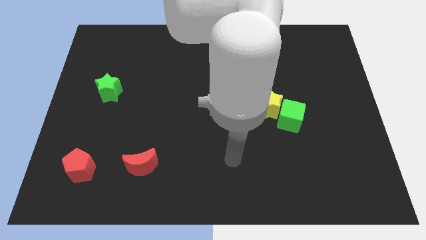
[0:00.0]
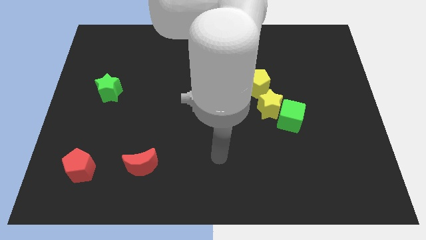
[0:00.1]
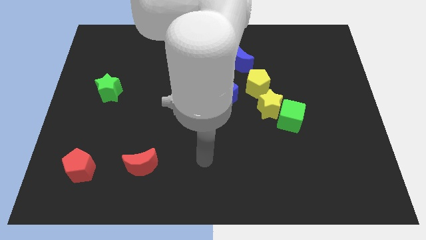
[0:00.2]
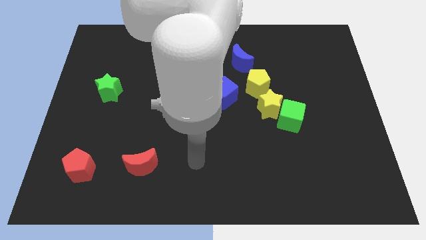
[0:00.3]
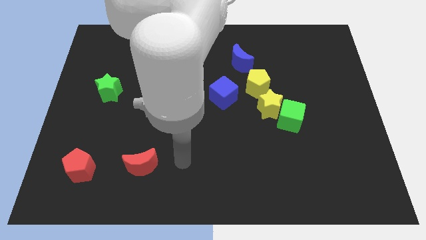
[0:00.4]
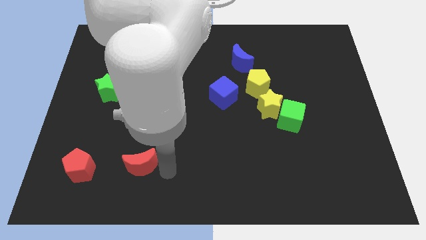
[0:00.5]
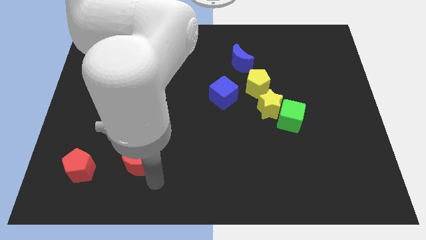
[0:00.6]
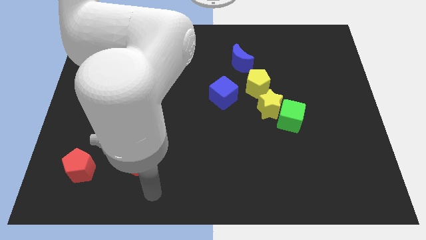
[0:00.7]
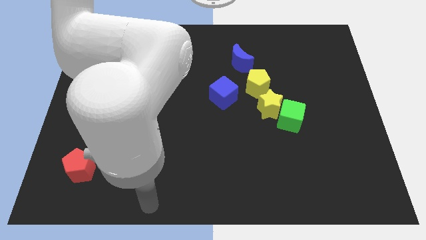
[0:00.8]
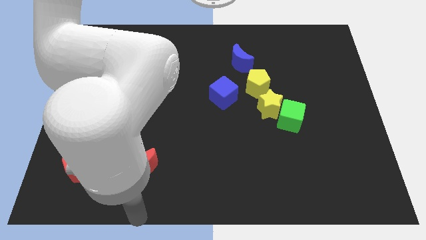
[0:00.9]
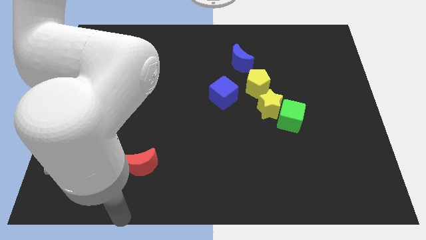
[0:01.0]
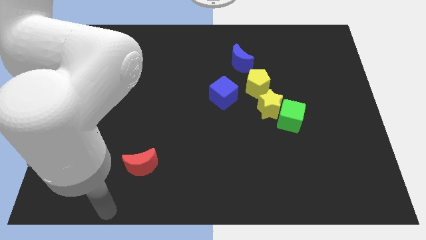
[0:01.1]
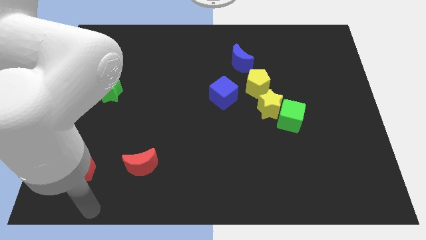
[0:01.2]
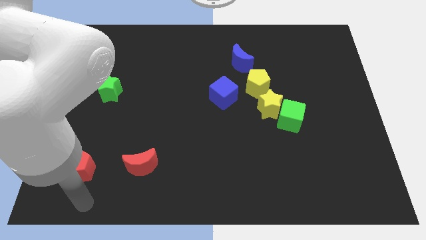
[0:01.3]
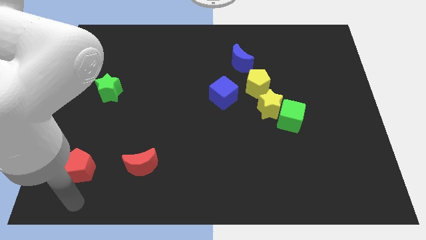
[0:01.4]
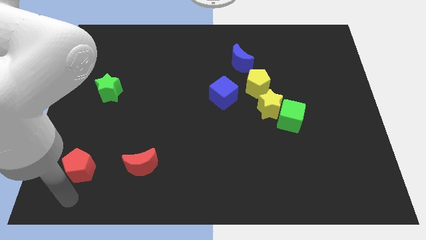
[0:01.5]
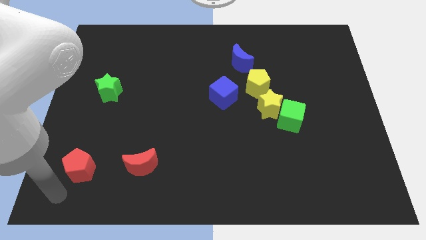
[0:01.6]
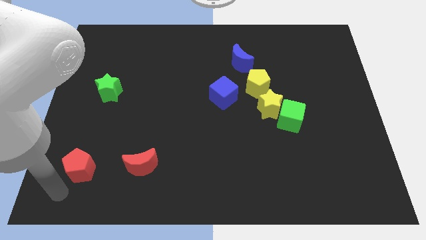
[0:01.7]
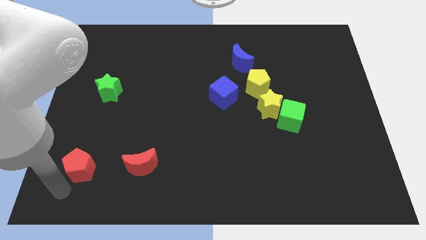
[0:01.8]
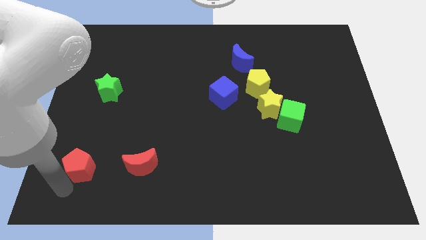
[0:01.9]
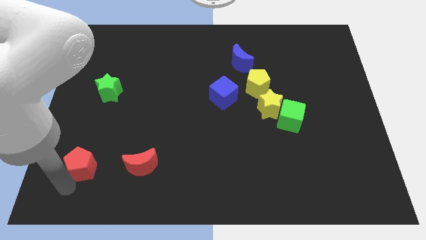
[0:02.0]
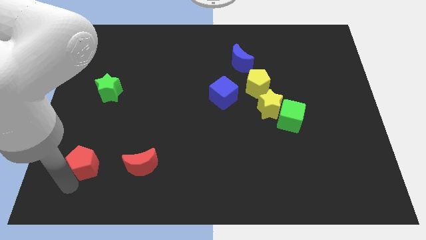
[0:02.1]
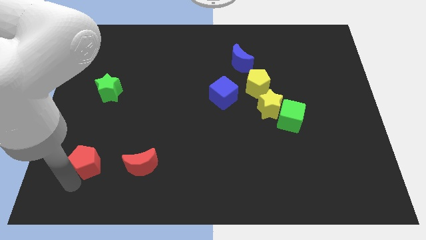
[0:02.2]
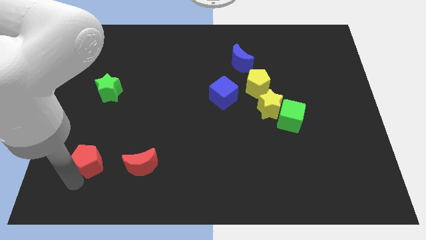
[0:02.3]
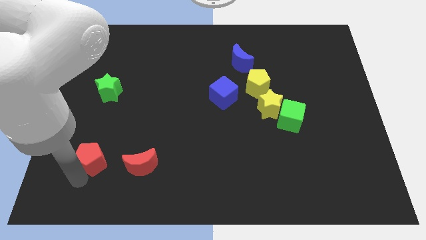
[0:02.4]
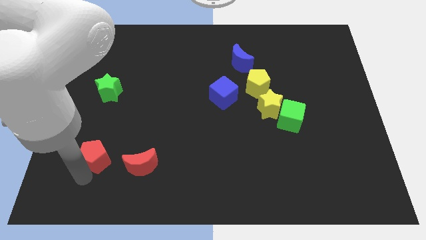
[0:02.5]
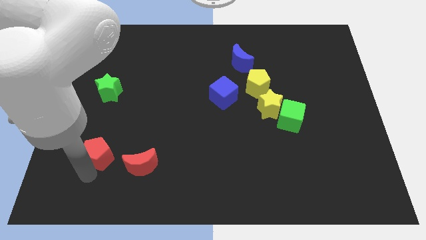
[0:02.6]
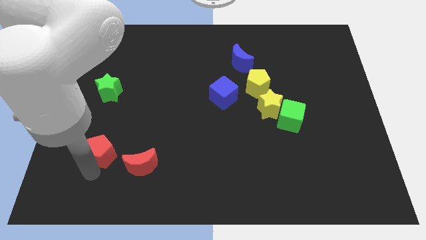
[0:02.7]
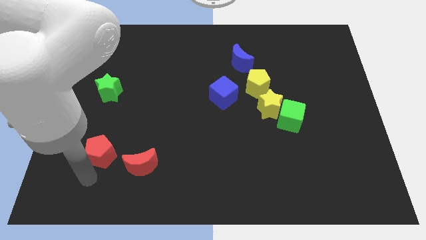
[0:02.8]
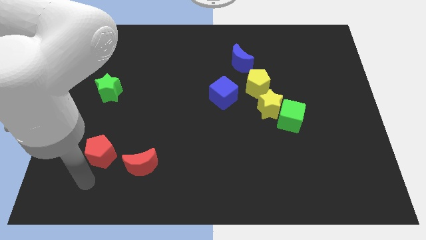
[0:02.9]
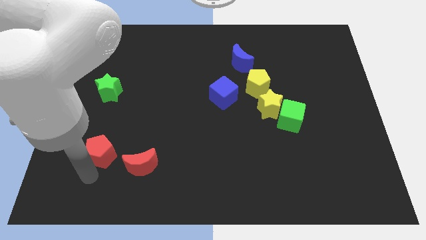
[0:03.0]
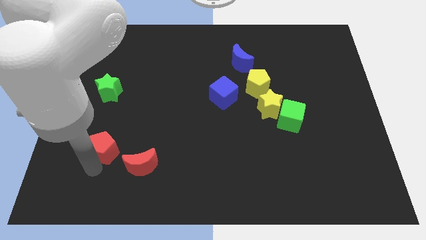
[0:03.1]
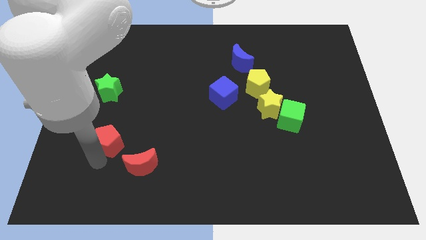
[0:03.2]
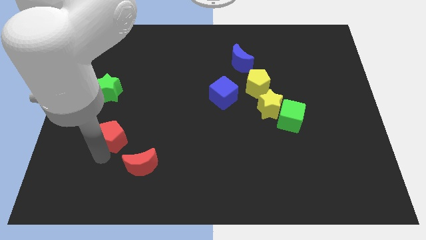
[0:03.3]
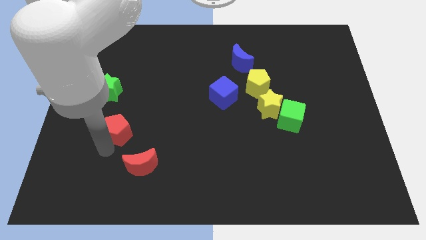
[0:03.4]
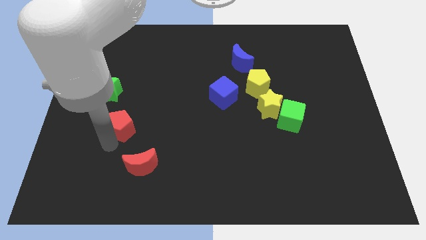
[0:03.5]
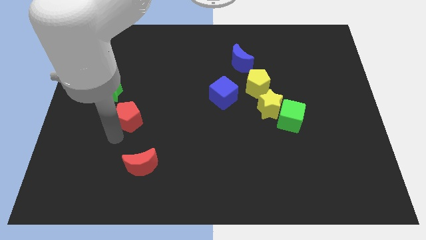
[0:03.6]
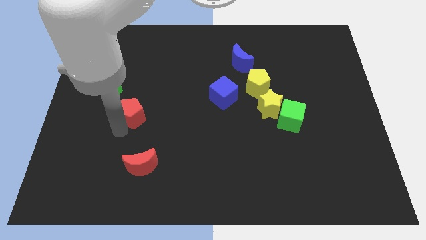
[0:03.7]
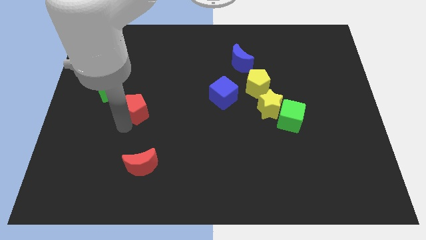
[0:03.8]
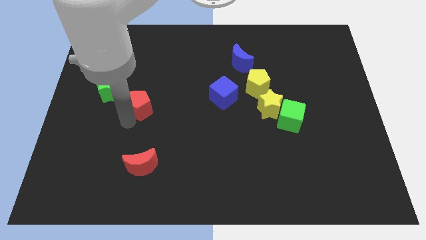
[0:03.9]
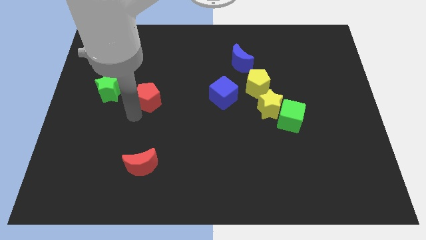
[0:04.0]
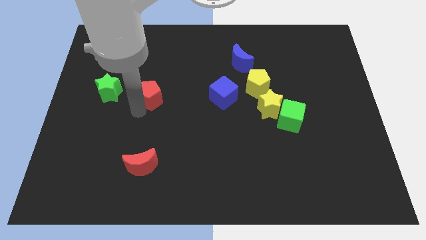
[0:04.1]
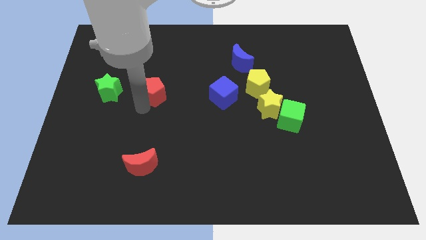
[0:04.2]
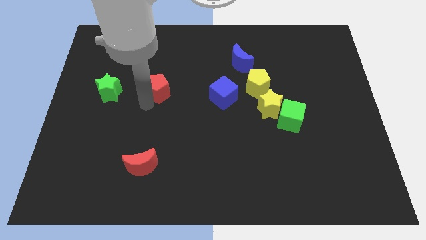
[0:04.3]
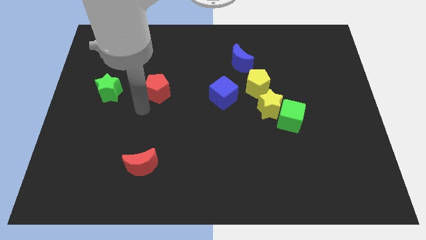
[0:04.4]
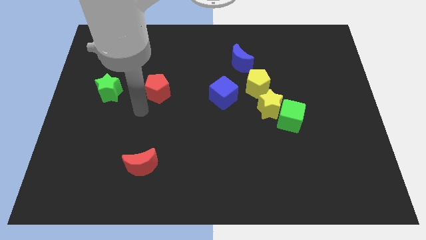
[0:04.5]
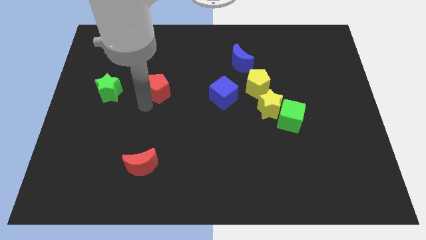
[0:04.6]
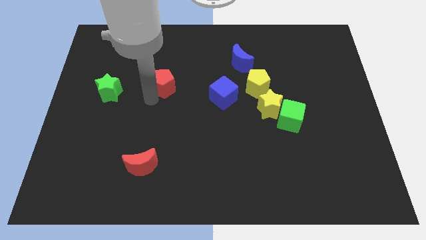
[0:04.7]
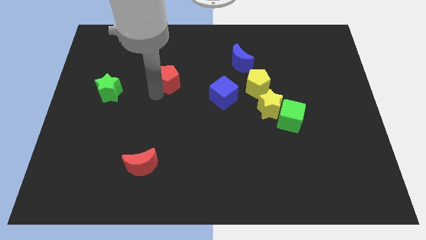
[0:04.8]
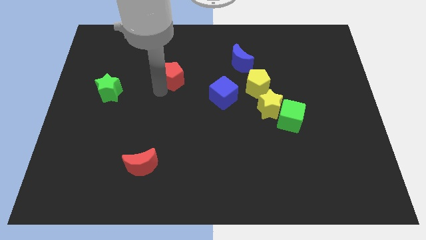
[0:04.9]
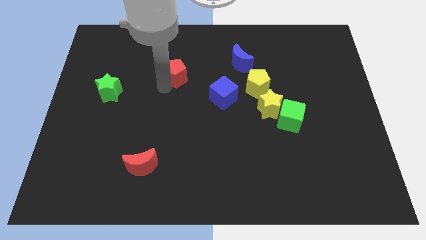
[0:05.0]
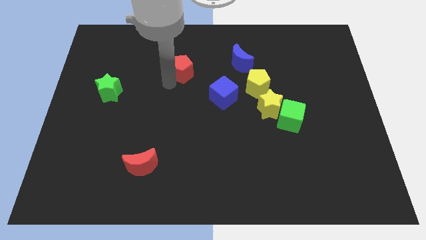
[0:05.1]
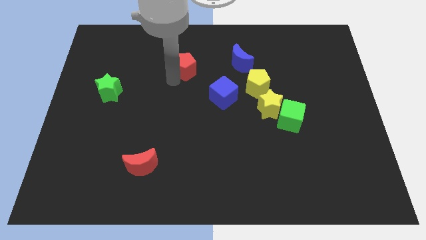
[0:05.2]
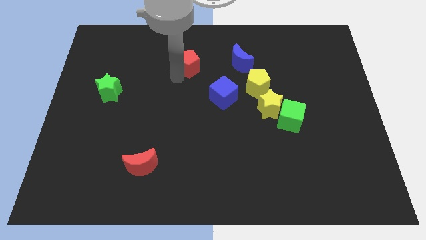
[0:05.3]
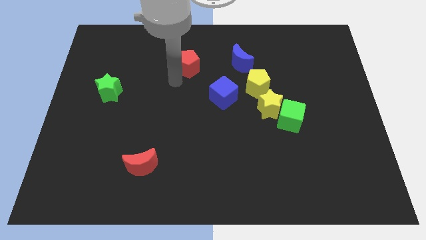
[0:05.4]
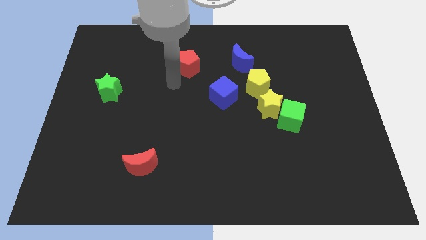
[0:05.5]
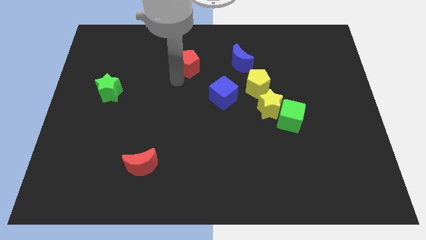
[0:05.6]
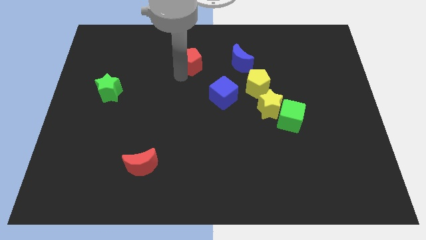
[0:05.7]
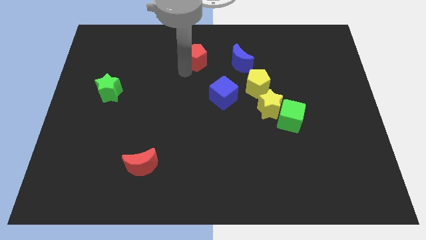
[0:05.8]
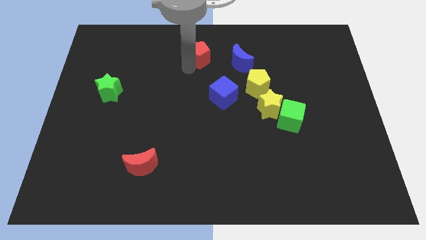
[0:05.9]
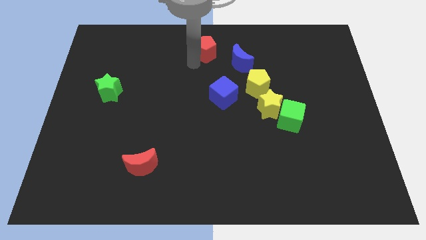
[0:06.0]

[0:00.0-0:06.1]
move the red pentagon to the top side

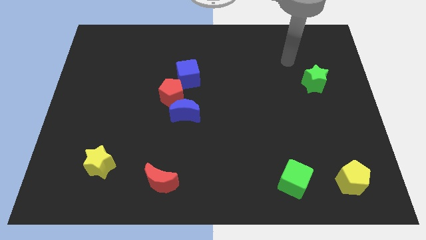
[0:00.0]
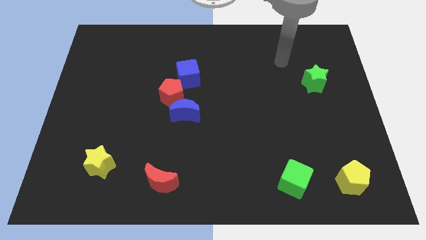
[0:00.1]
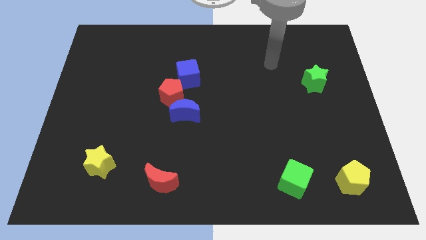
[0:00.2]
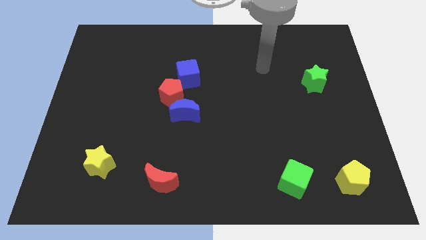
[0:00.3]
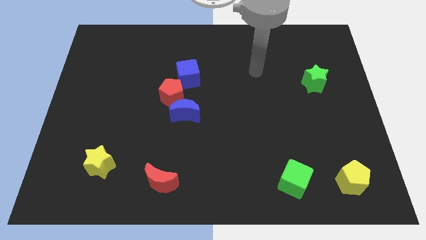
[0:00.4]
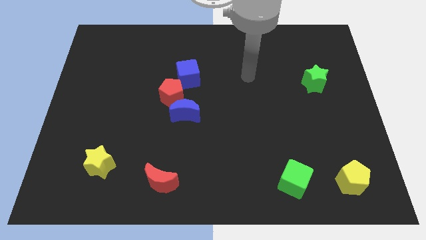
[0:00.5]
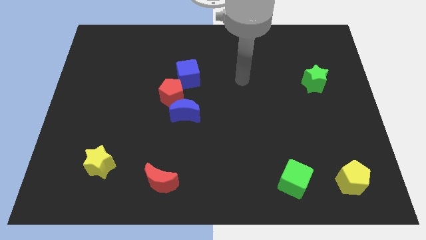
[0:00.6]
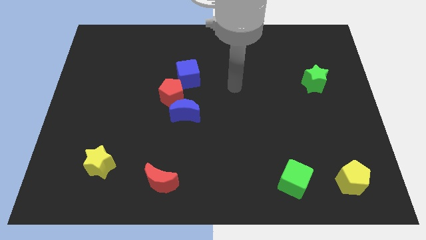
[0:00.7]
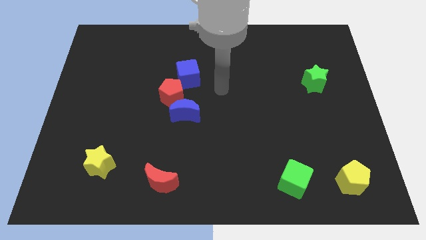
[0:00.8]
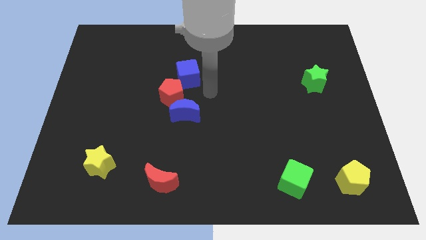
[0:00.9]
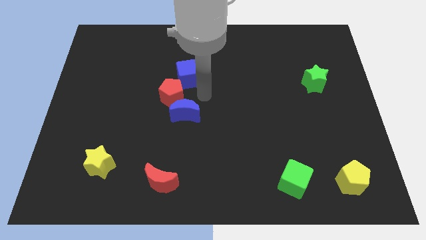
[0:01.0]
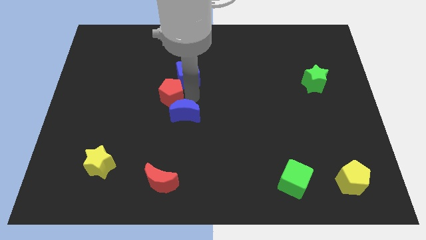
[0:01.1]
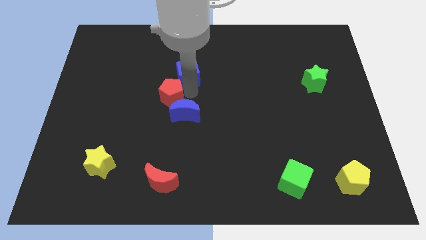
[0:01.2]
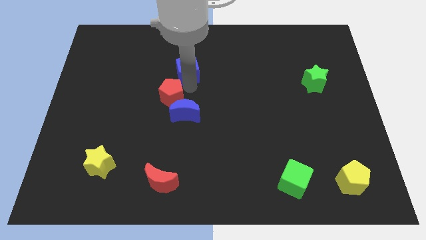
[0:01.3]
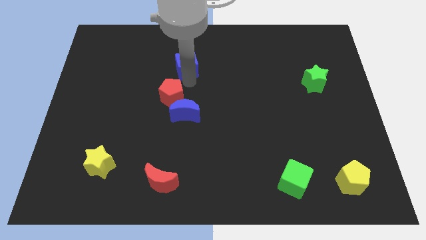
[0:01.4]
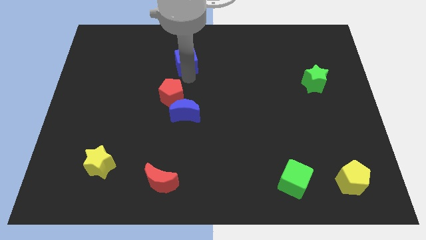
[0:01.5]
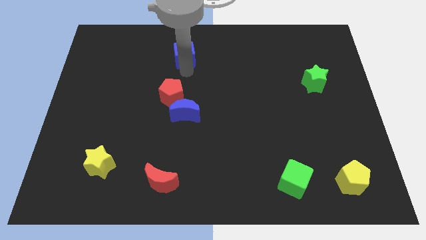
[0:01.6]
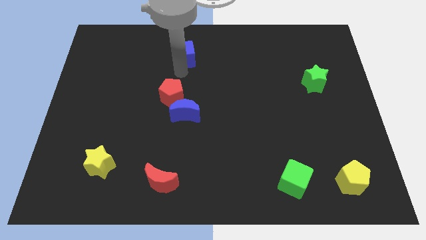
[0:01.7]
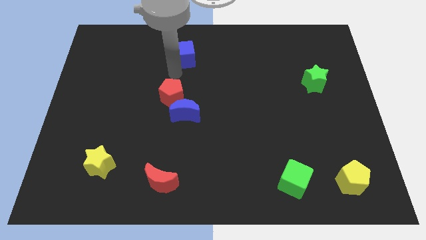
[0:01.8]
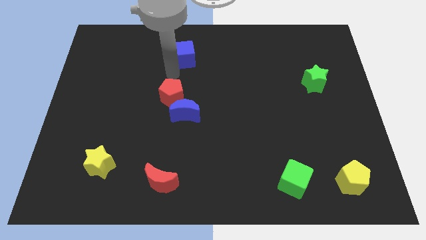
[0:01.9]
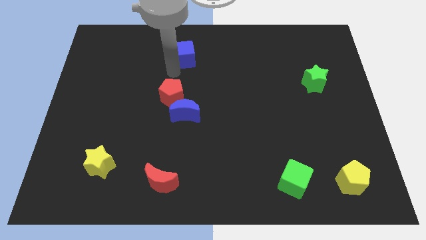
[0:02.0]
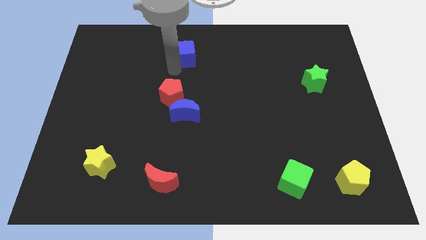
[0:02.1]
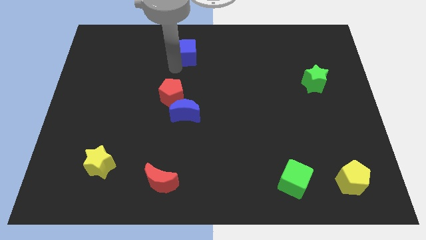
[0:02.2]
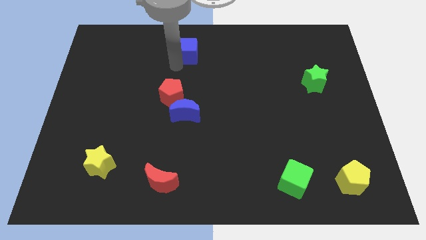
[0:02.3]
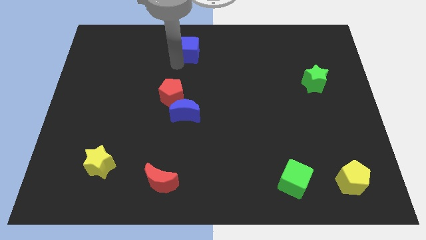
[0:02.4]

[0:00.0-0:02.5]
slide the blue cube to the top side
